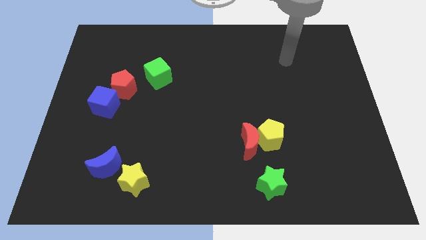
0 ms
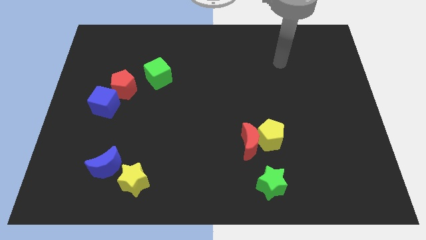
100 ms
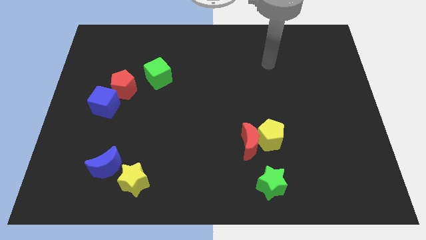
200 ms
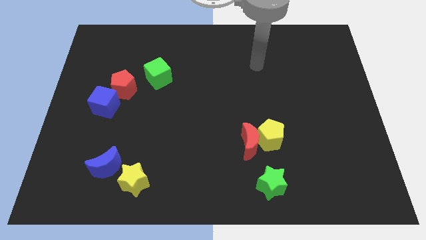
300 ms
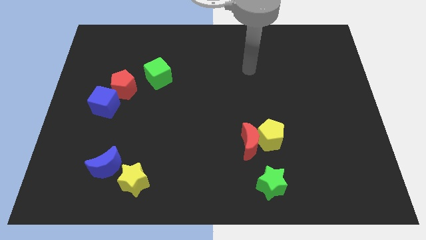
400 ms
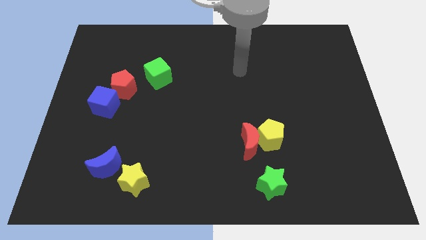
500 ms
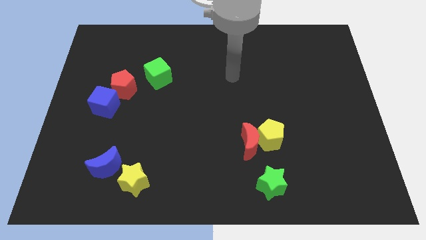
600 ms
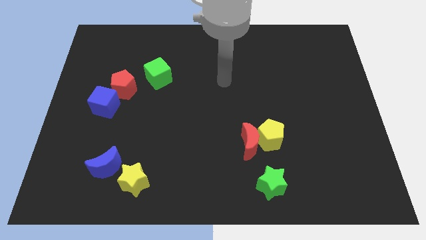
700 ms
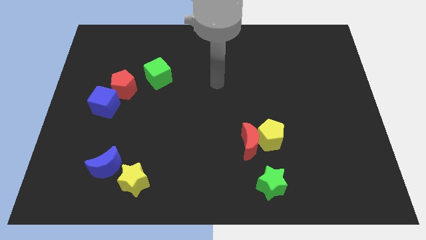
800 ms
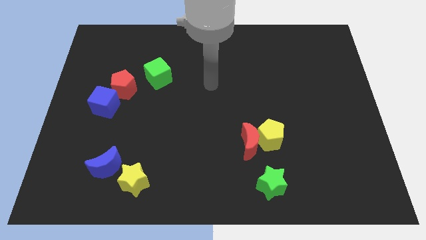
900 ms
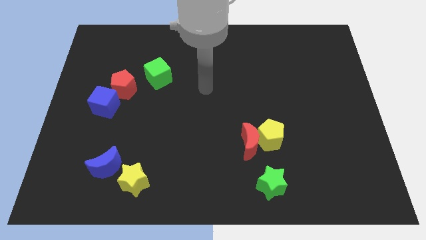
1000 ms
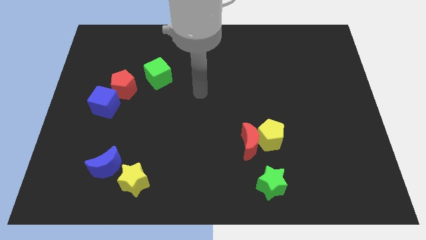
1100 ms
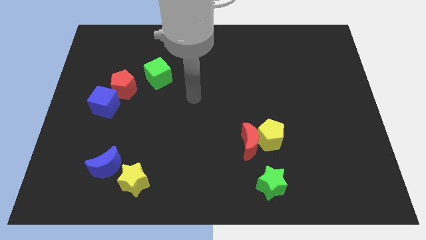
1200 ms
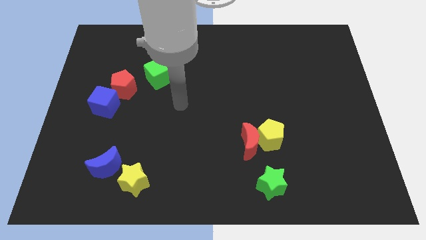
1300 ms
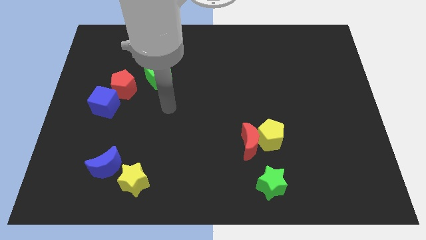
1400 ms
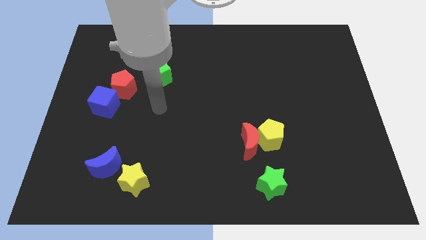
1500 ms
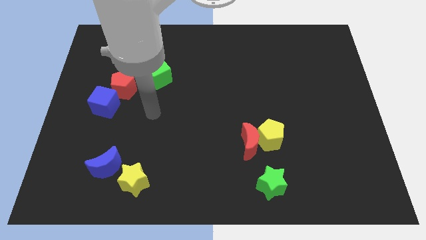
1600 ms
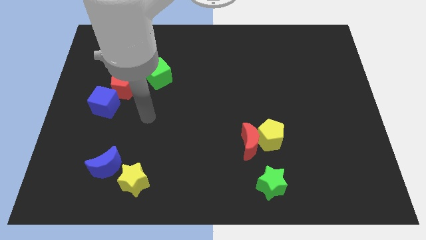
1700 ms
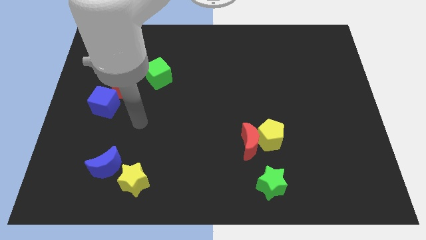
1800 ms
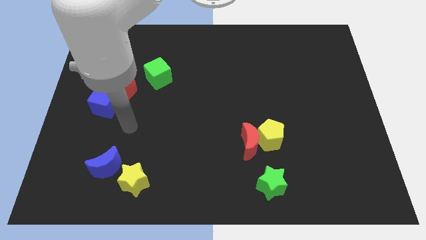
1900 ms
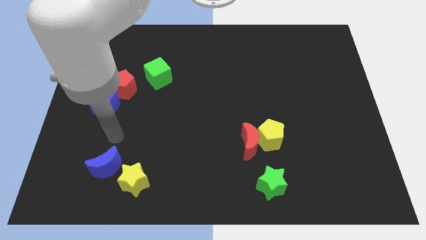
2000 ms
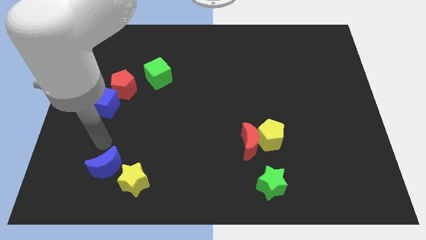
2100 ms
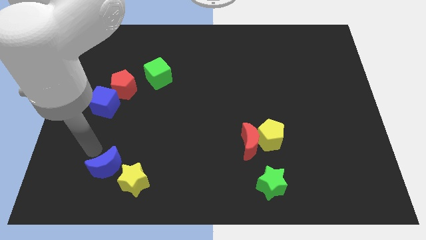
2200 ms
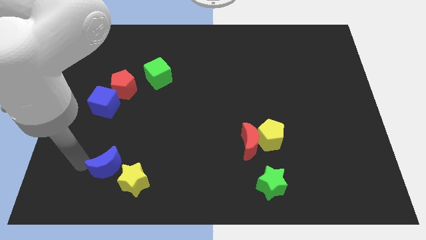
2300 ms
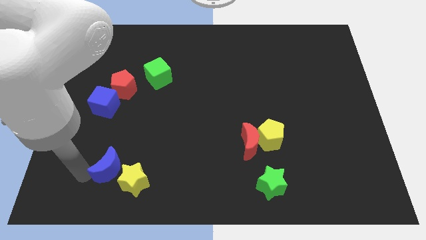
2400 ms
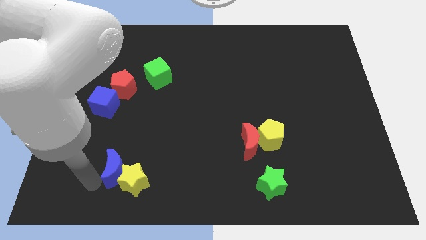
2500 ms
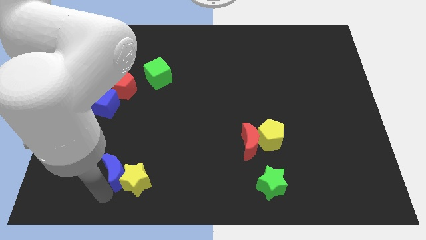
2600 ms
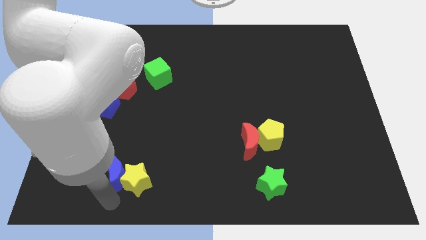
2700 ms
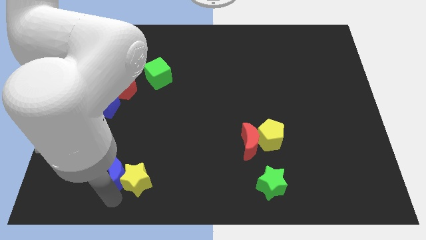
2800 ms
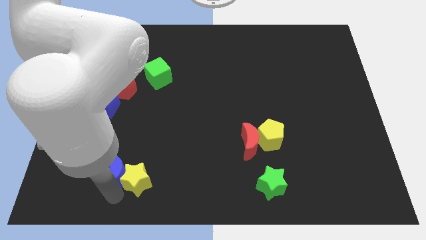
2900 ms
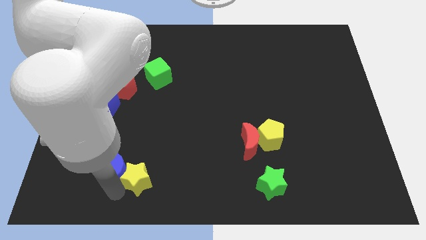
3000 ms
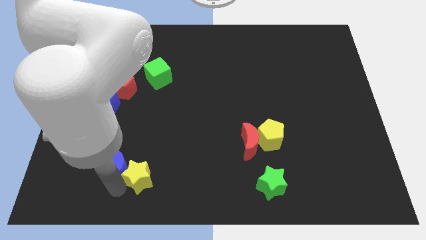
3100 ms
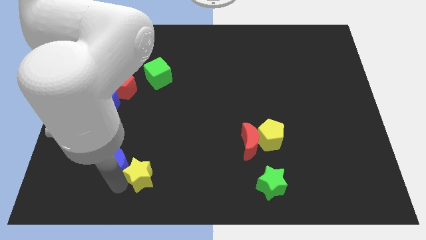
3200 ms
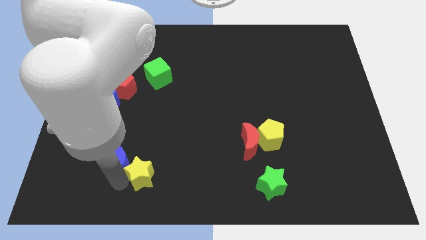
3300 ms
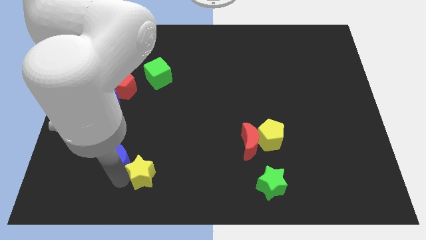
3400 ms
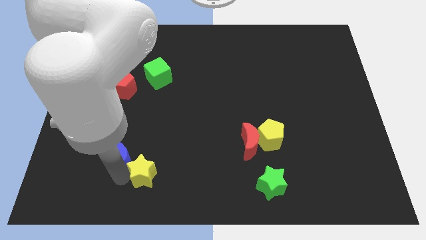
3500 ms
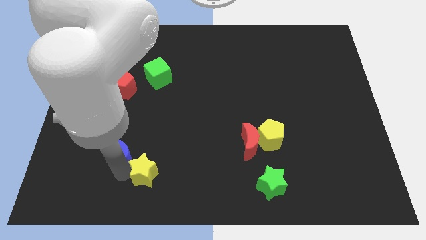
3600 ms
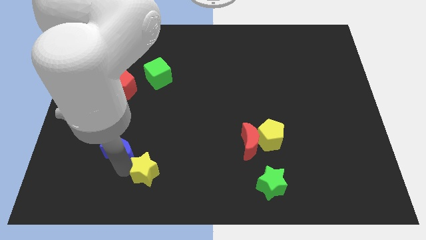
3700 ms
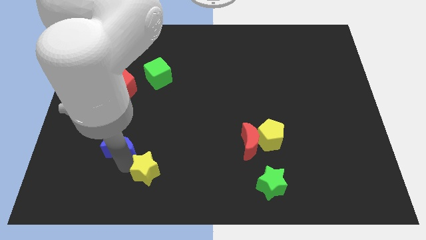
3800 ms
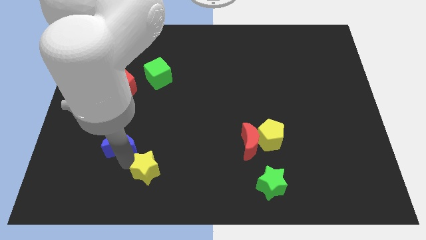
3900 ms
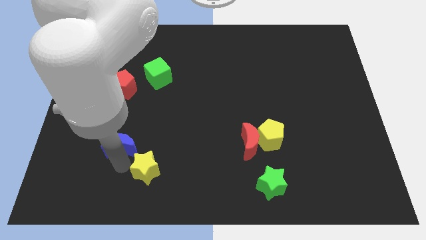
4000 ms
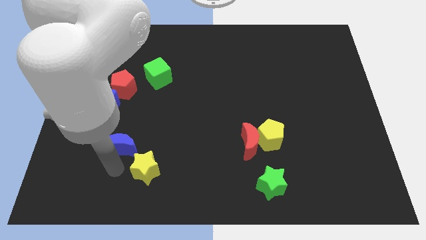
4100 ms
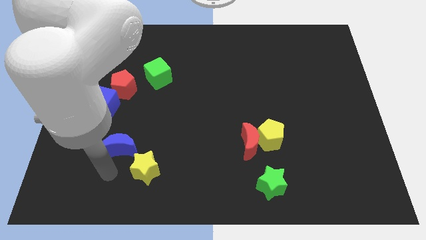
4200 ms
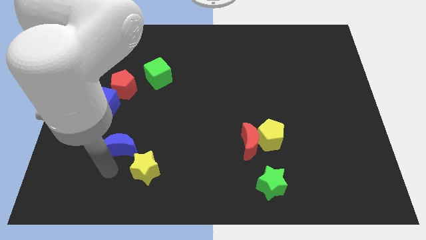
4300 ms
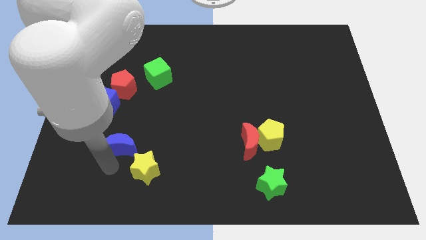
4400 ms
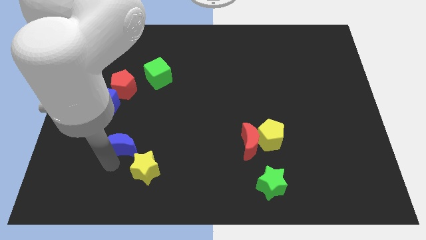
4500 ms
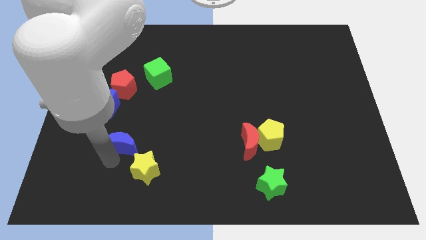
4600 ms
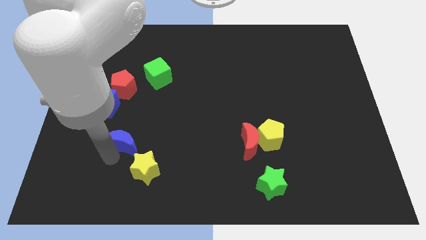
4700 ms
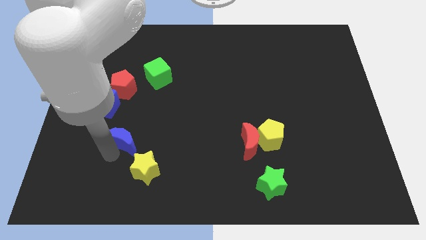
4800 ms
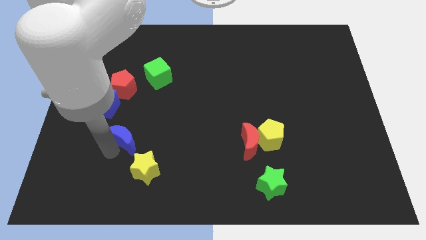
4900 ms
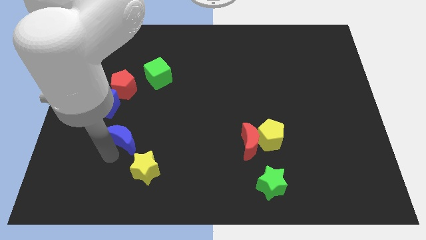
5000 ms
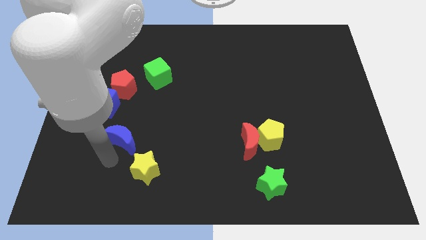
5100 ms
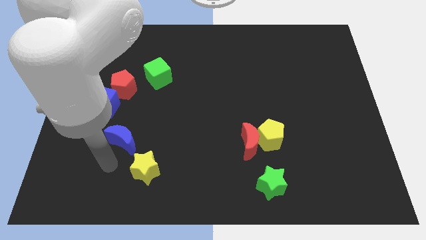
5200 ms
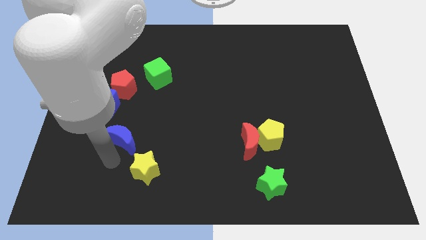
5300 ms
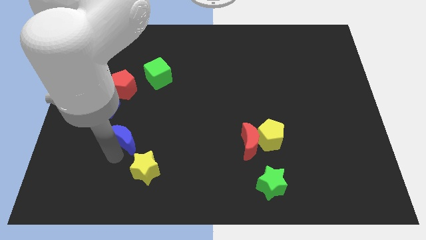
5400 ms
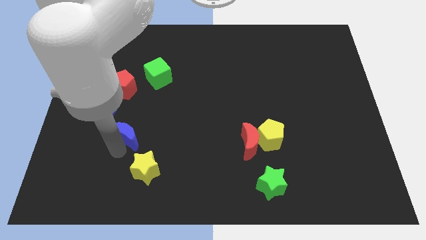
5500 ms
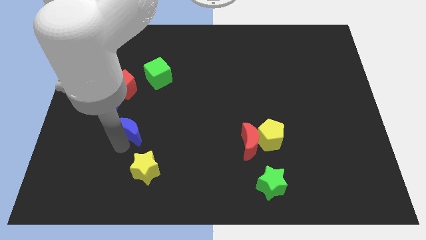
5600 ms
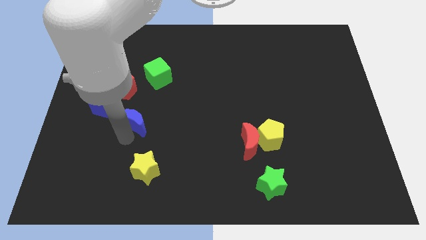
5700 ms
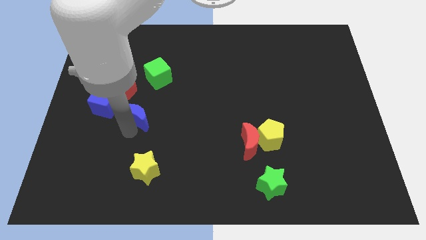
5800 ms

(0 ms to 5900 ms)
slide the blue moon to the right side of the blue cube

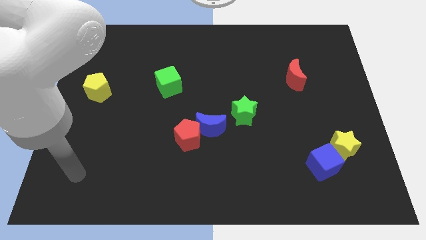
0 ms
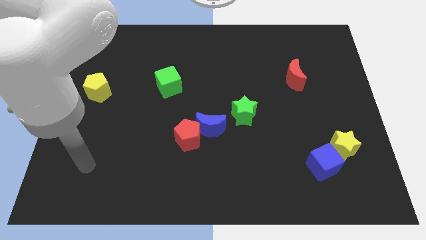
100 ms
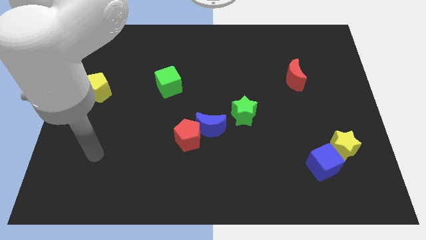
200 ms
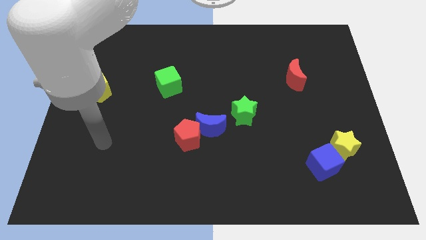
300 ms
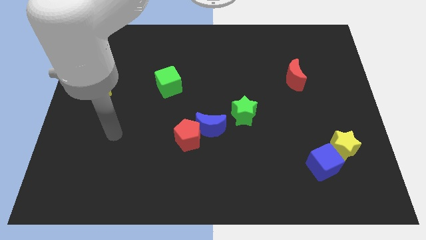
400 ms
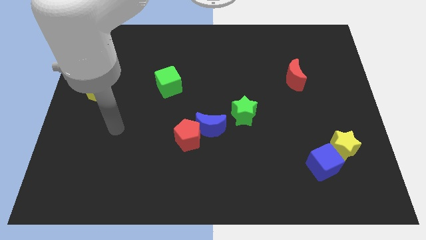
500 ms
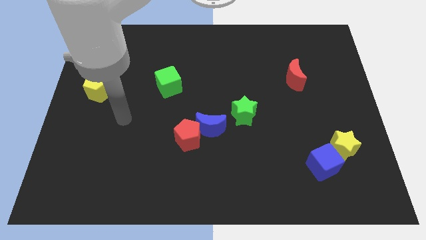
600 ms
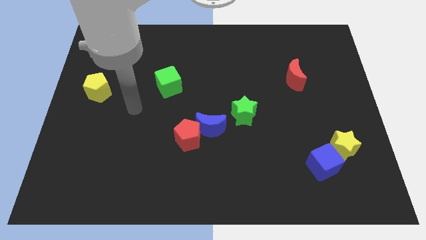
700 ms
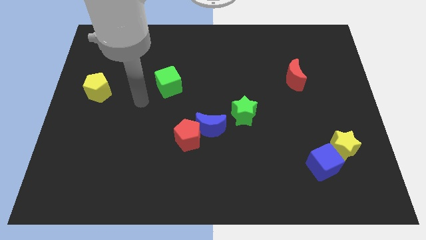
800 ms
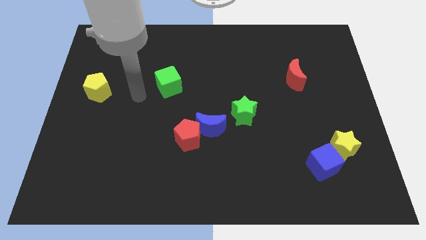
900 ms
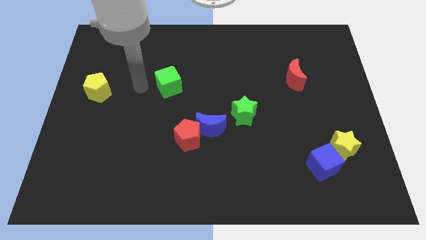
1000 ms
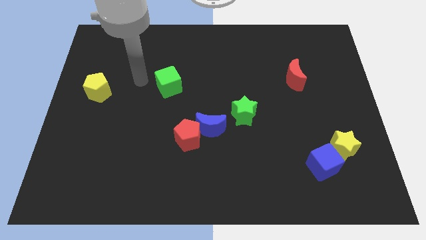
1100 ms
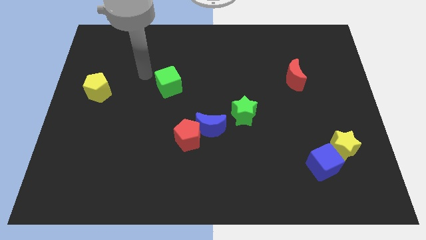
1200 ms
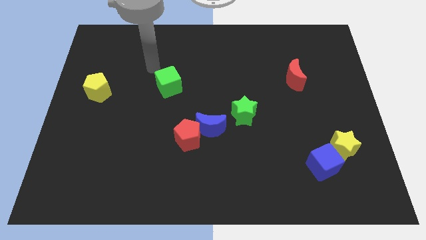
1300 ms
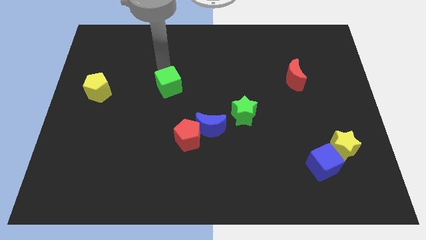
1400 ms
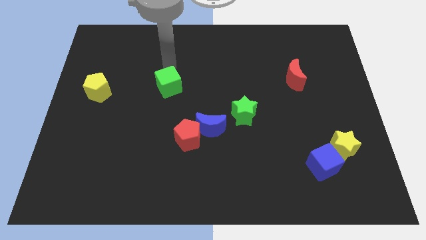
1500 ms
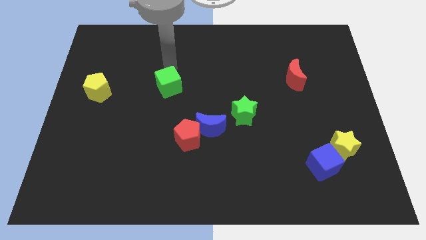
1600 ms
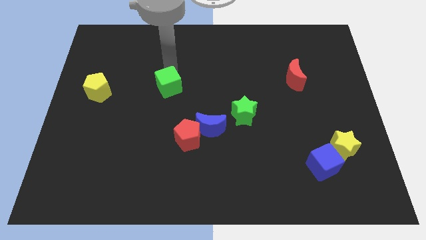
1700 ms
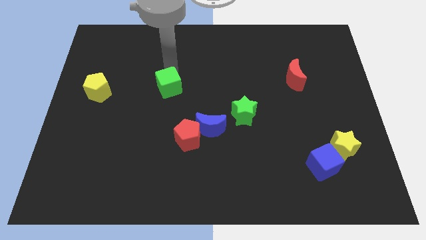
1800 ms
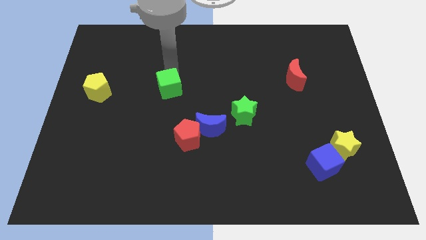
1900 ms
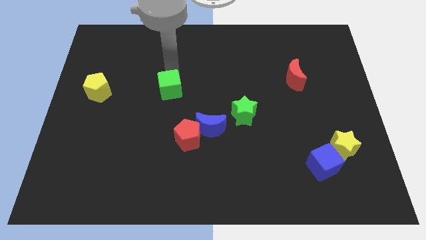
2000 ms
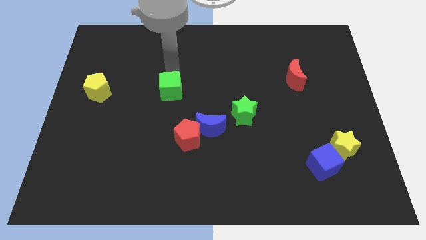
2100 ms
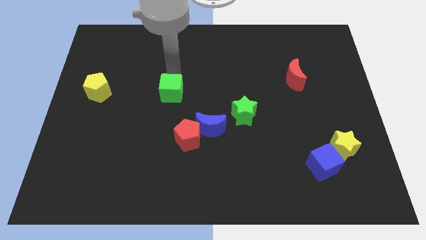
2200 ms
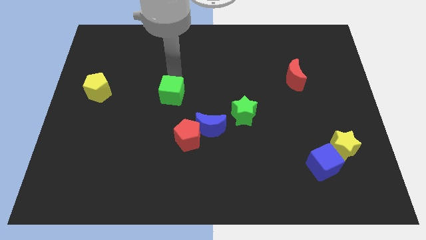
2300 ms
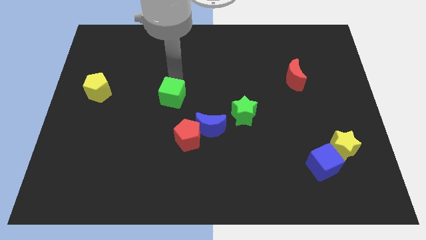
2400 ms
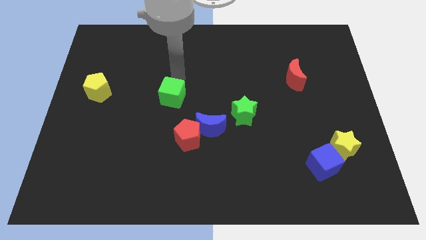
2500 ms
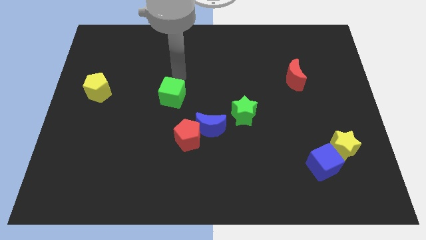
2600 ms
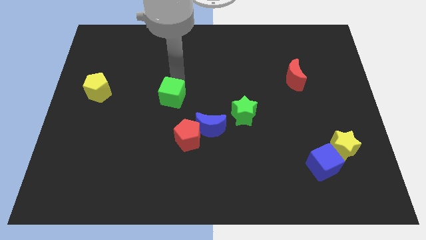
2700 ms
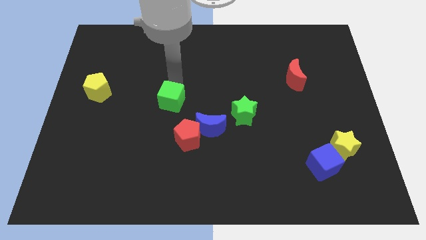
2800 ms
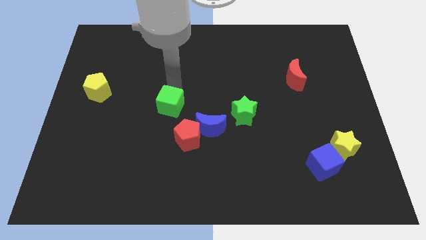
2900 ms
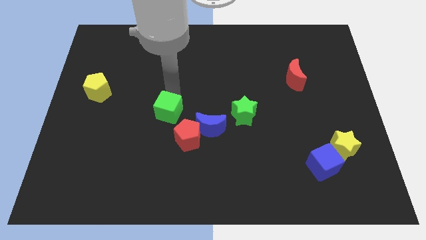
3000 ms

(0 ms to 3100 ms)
move the green cube to the left of the blue moon
